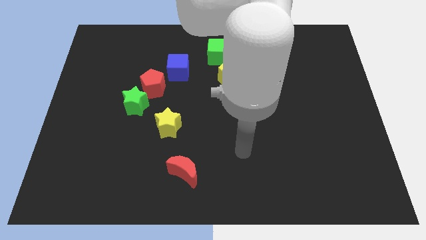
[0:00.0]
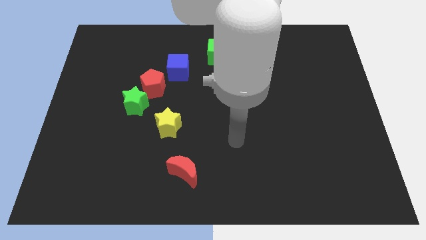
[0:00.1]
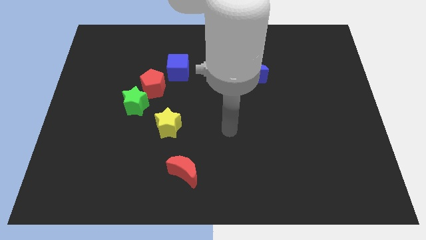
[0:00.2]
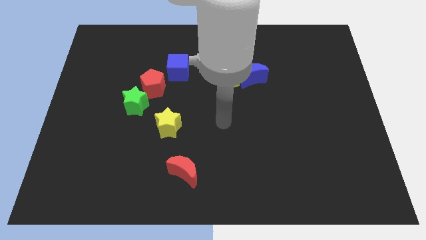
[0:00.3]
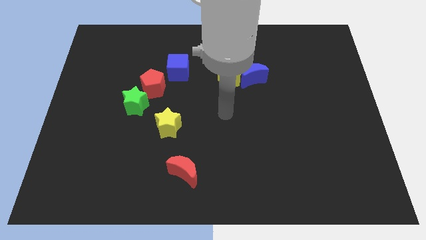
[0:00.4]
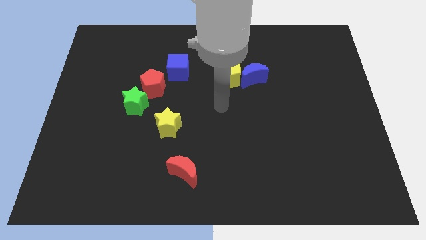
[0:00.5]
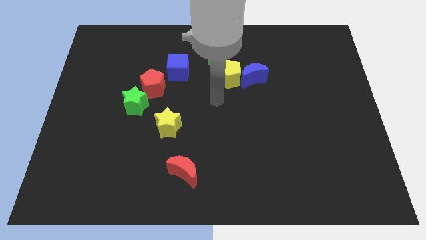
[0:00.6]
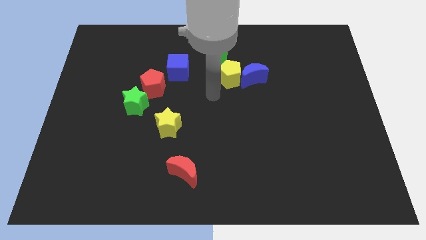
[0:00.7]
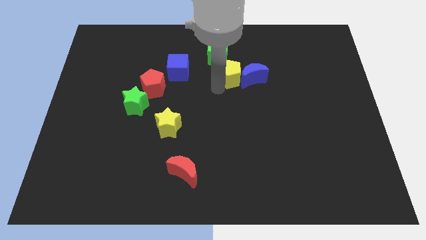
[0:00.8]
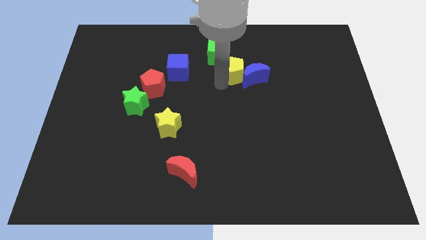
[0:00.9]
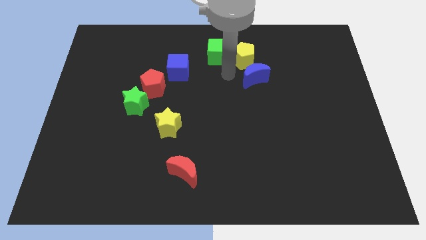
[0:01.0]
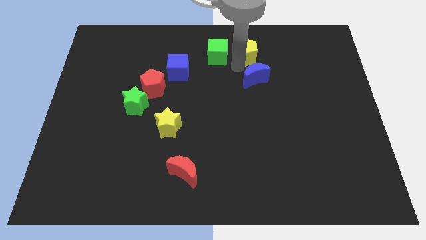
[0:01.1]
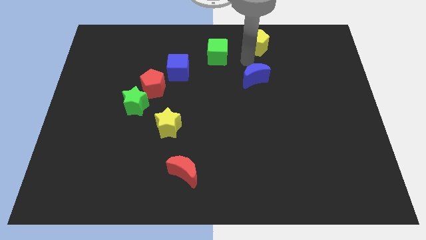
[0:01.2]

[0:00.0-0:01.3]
pull the blue moon apart from the yellow pentagon

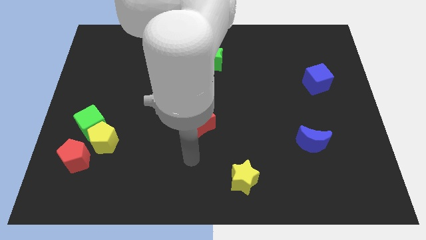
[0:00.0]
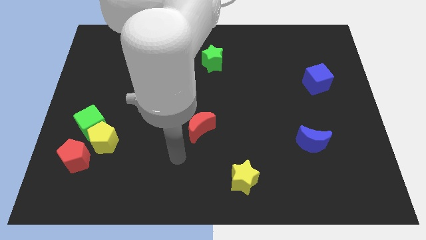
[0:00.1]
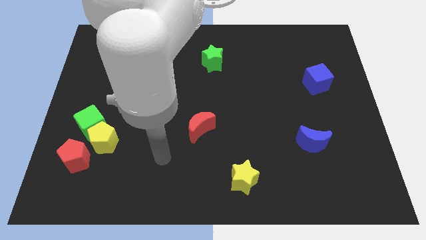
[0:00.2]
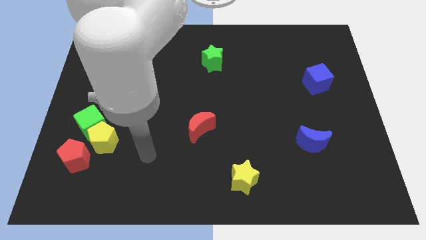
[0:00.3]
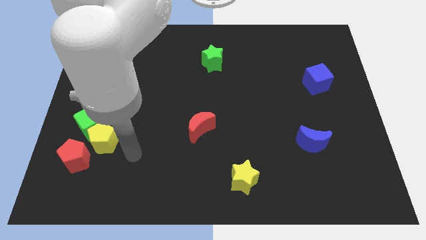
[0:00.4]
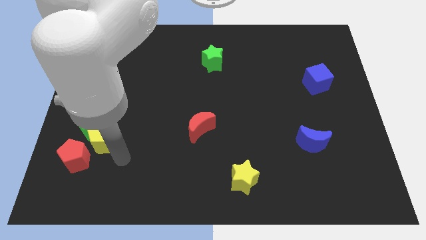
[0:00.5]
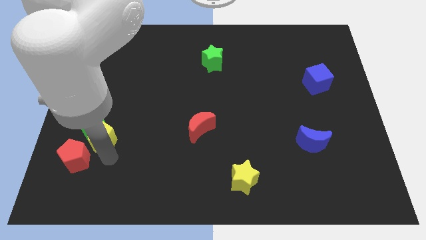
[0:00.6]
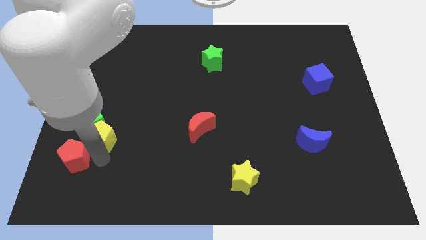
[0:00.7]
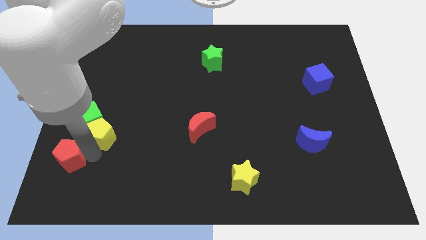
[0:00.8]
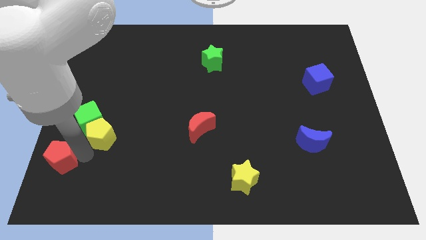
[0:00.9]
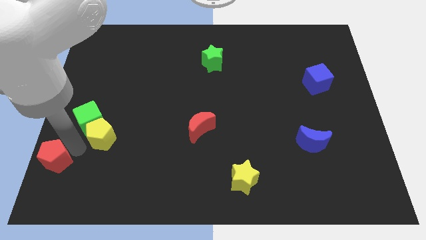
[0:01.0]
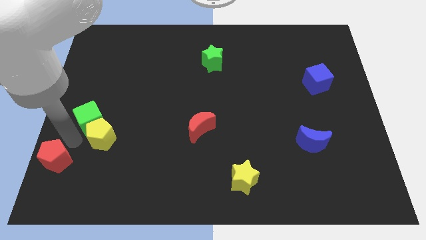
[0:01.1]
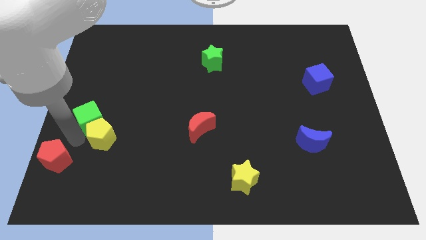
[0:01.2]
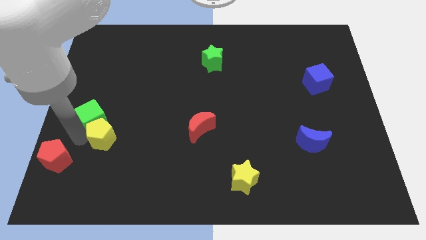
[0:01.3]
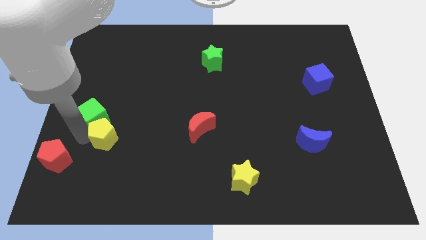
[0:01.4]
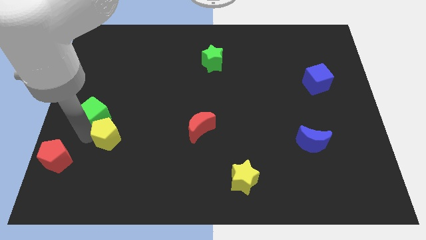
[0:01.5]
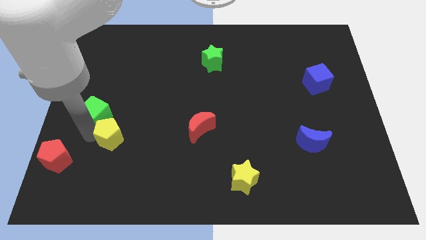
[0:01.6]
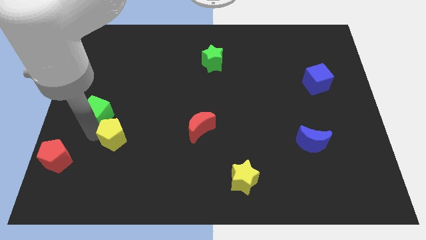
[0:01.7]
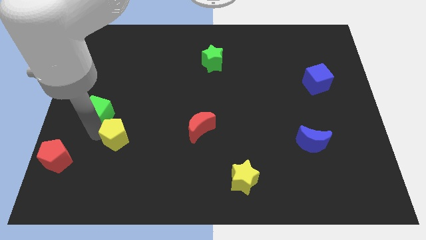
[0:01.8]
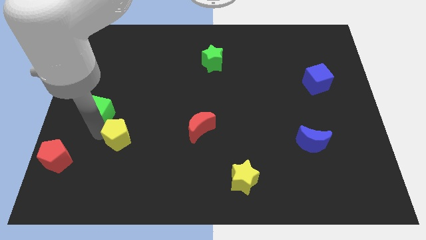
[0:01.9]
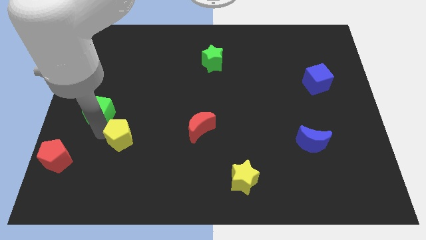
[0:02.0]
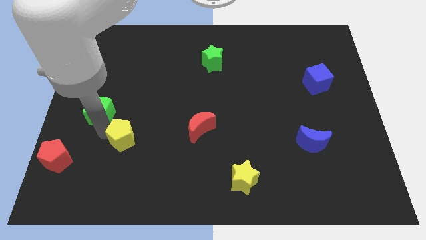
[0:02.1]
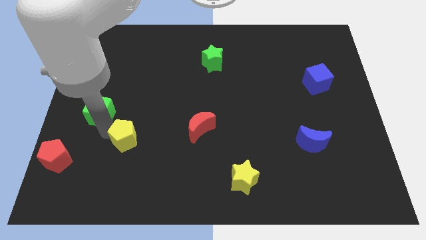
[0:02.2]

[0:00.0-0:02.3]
move the yellow pentagon away from the green cube and red pentagon

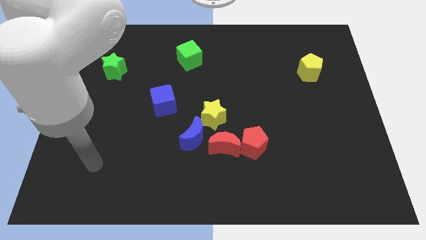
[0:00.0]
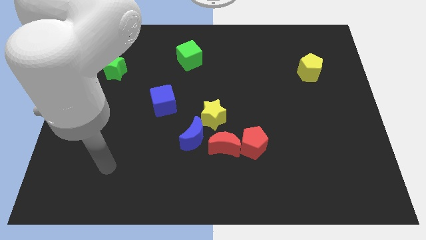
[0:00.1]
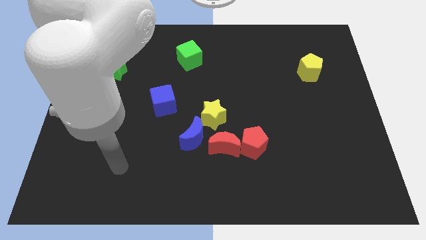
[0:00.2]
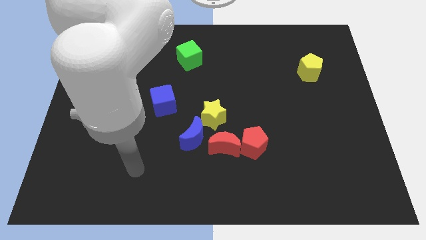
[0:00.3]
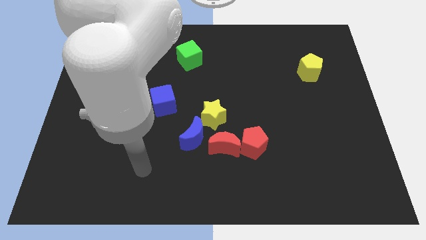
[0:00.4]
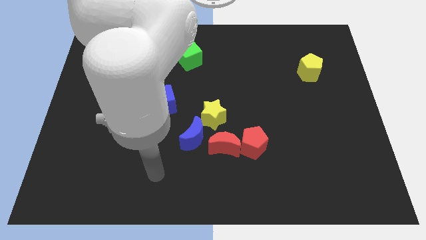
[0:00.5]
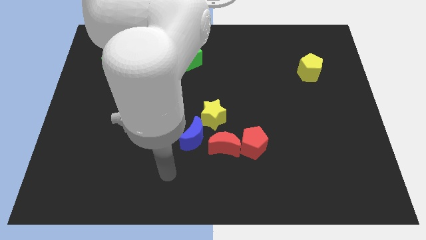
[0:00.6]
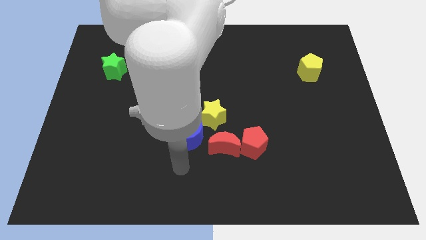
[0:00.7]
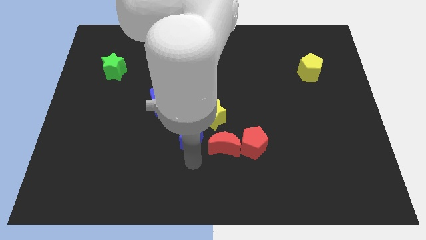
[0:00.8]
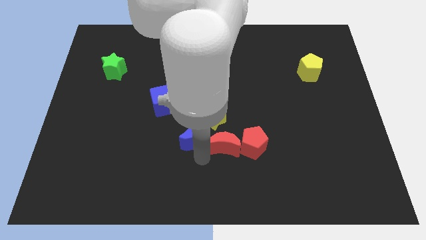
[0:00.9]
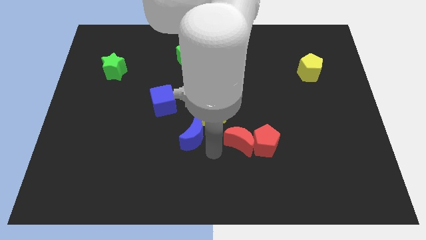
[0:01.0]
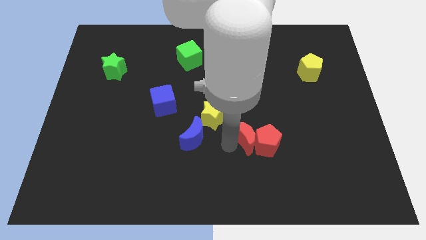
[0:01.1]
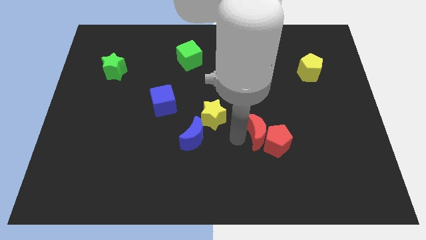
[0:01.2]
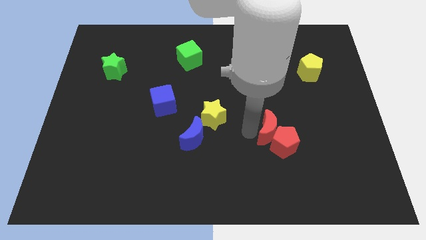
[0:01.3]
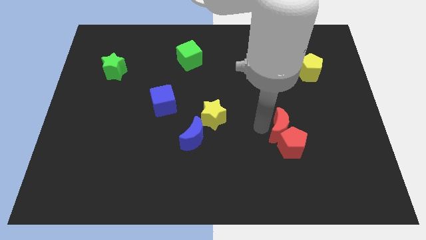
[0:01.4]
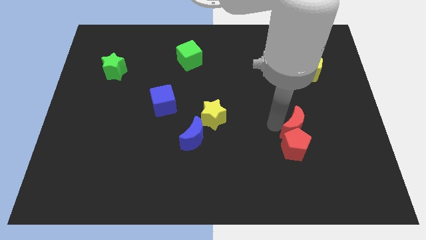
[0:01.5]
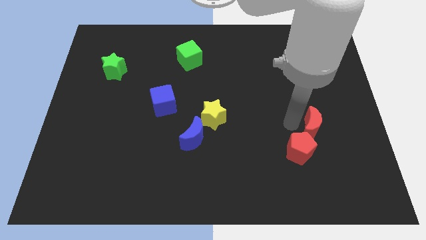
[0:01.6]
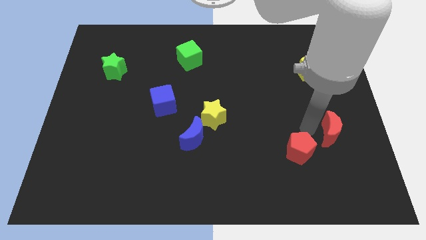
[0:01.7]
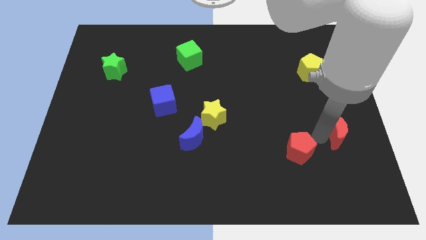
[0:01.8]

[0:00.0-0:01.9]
separate the red pentagon from the red moon

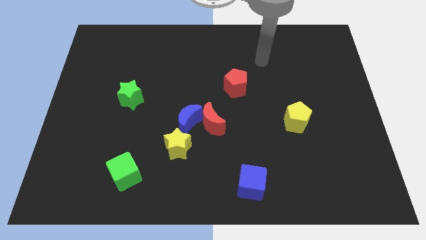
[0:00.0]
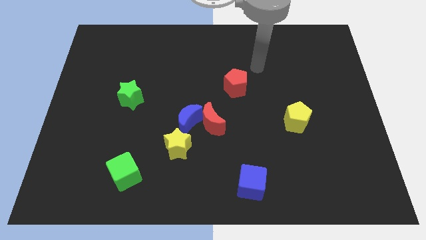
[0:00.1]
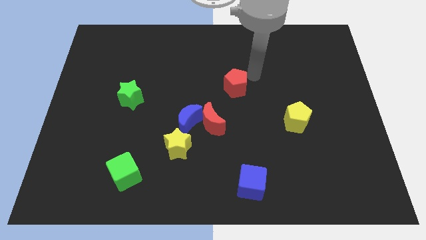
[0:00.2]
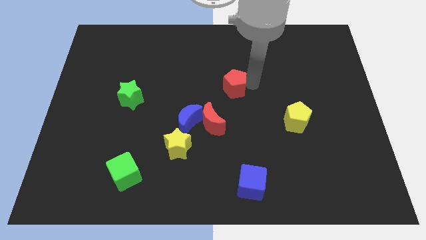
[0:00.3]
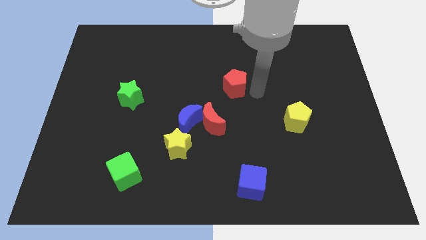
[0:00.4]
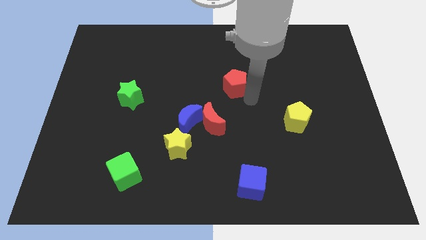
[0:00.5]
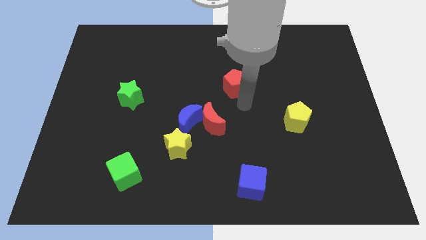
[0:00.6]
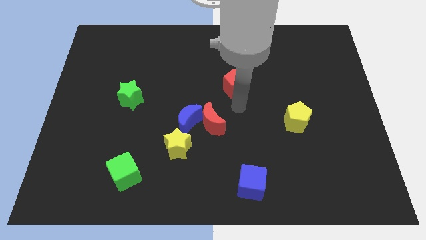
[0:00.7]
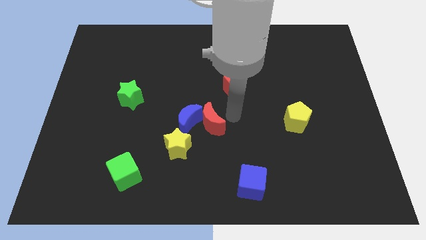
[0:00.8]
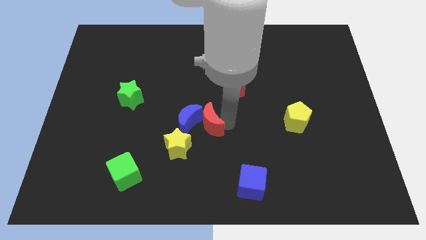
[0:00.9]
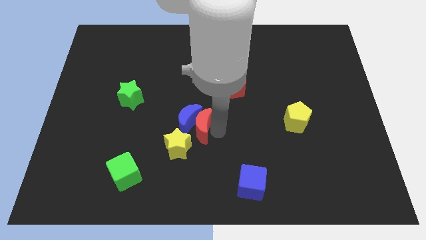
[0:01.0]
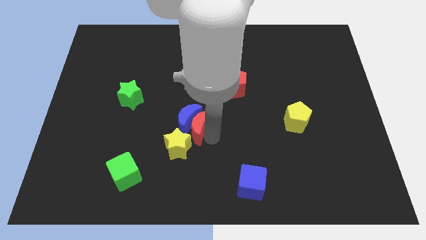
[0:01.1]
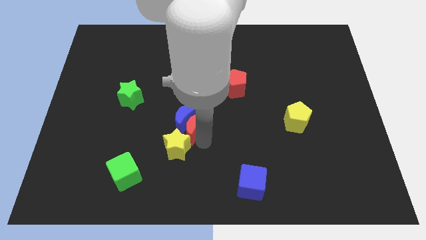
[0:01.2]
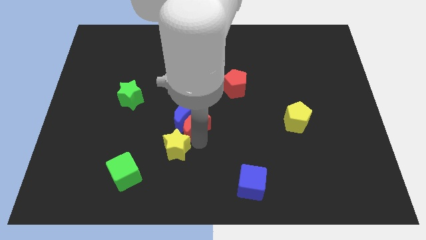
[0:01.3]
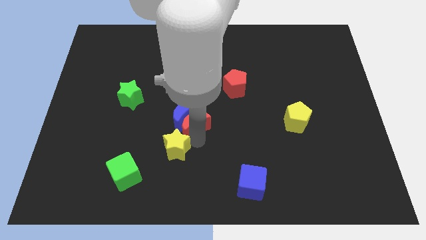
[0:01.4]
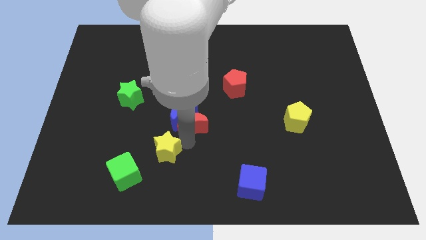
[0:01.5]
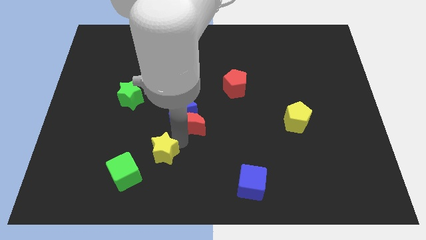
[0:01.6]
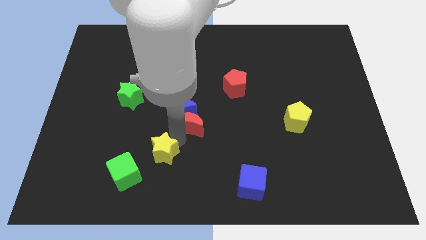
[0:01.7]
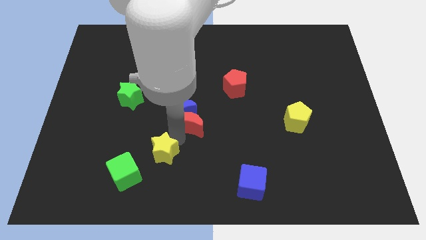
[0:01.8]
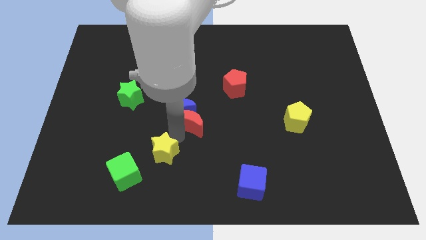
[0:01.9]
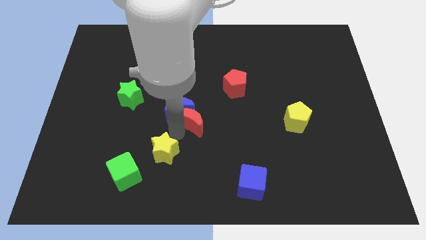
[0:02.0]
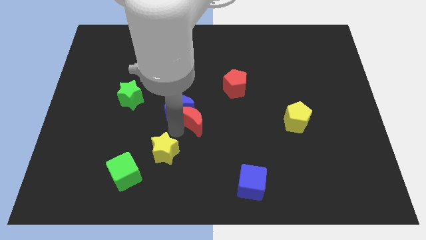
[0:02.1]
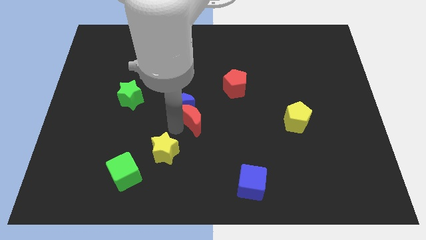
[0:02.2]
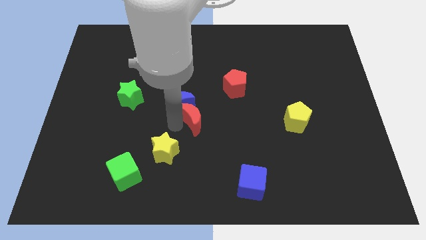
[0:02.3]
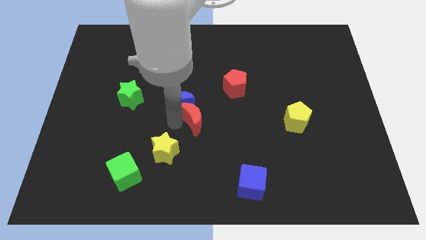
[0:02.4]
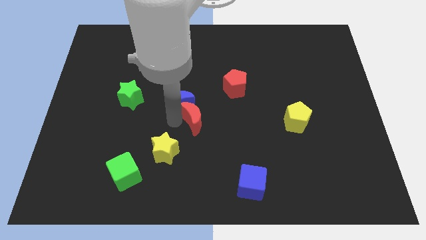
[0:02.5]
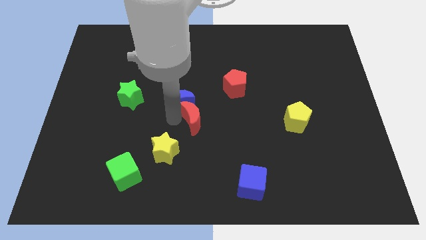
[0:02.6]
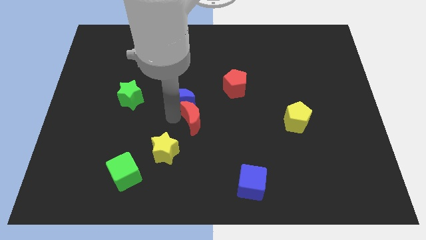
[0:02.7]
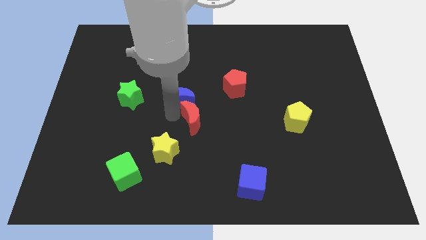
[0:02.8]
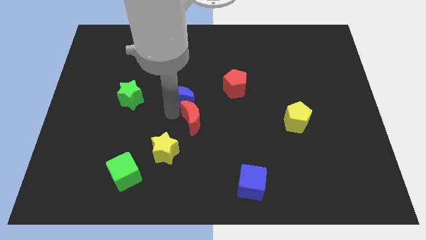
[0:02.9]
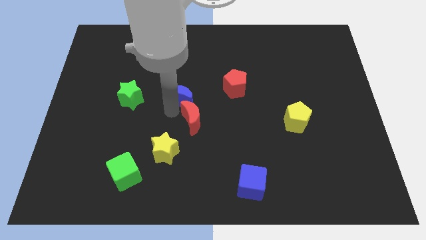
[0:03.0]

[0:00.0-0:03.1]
pull the blue moon apart from the red moon and yellow star

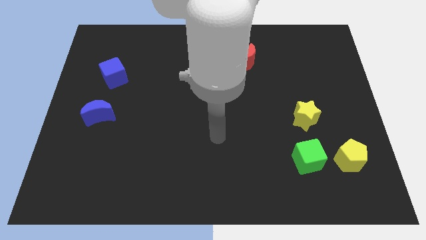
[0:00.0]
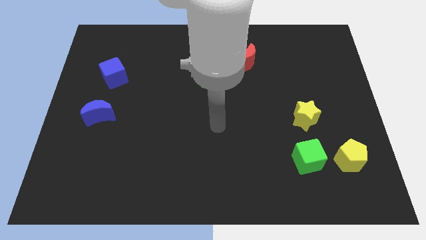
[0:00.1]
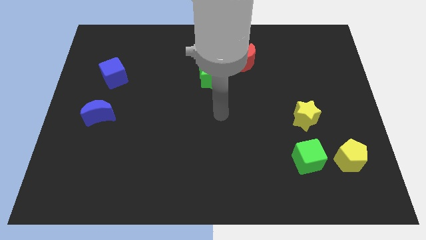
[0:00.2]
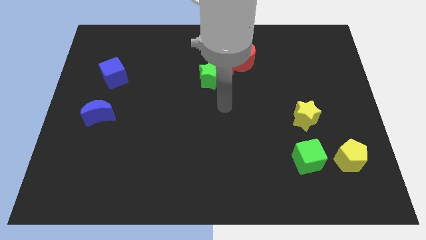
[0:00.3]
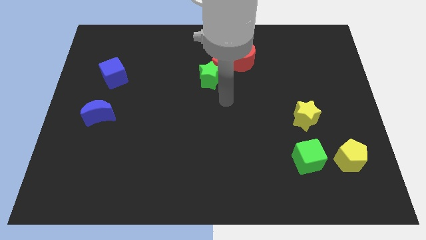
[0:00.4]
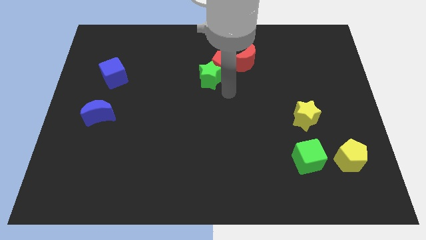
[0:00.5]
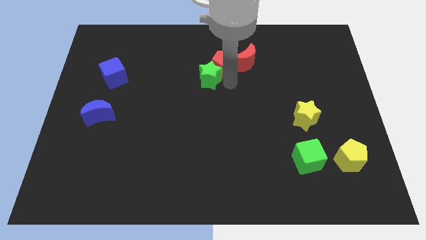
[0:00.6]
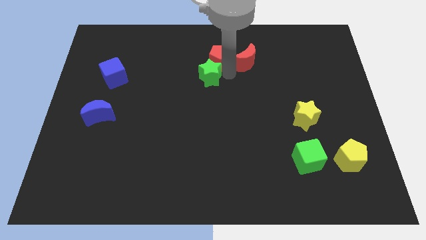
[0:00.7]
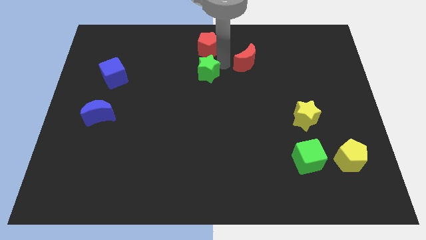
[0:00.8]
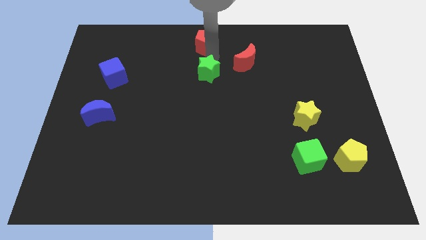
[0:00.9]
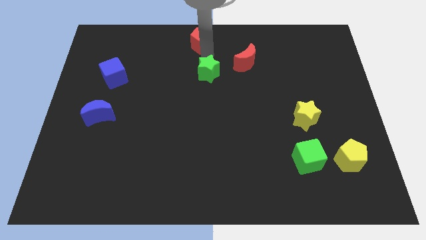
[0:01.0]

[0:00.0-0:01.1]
pull the green star apart from the red pentagon
